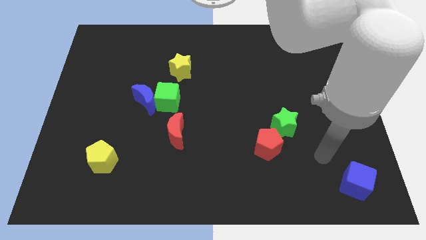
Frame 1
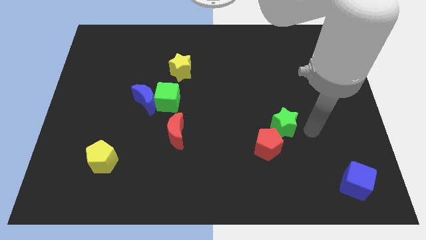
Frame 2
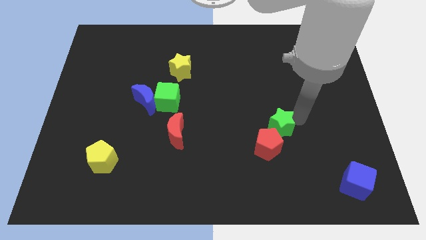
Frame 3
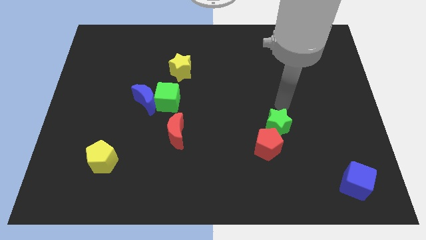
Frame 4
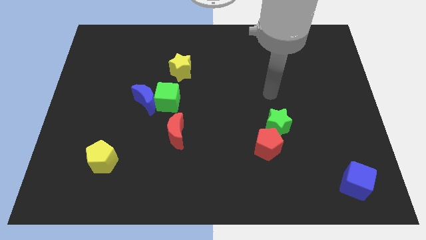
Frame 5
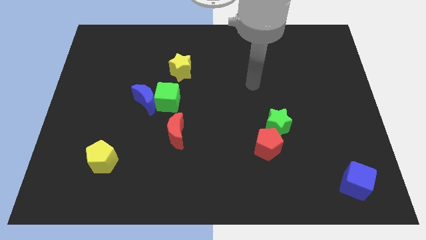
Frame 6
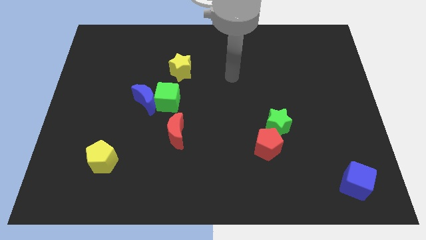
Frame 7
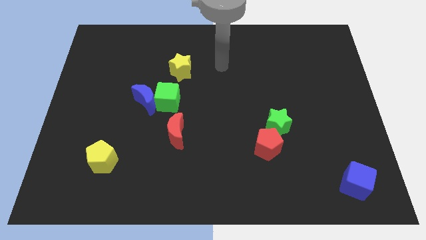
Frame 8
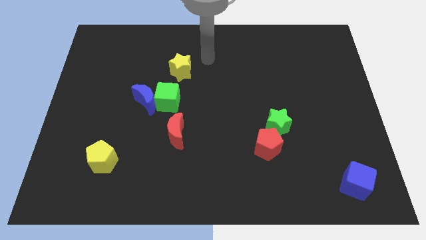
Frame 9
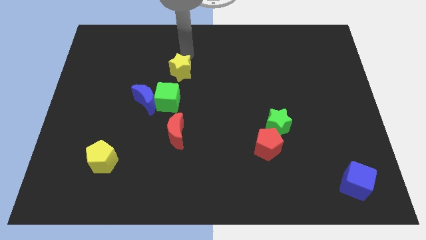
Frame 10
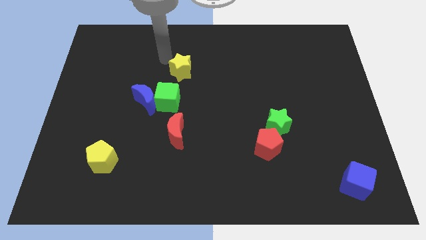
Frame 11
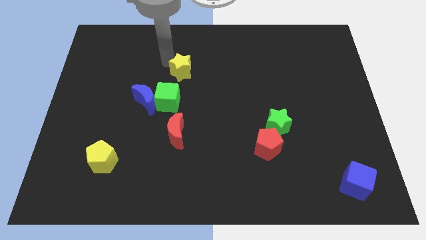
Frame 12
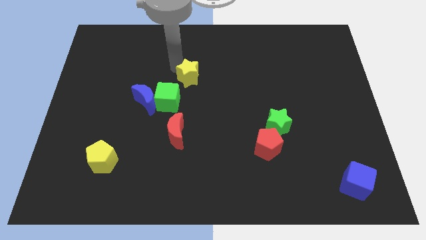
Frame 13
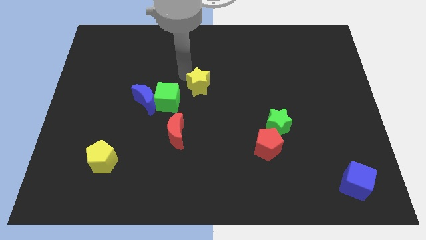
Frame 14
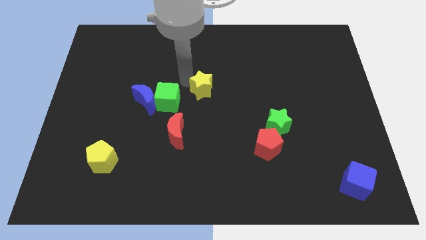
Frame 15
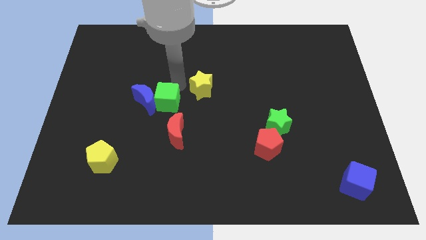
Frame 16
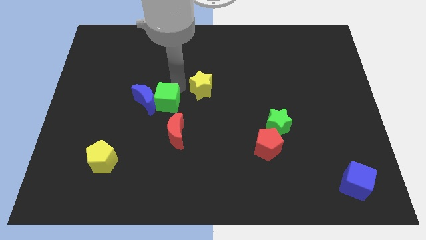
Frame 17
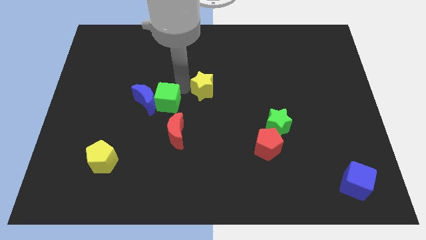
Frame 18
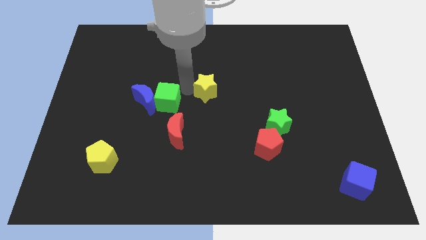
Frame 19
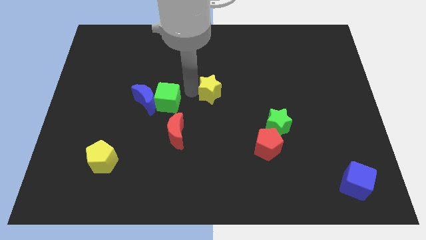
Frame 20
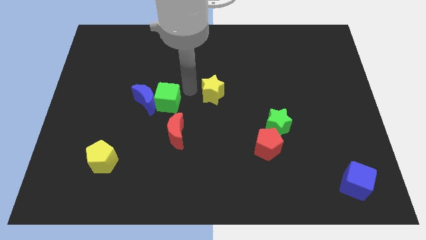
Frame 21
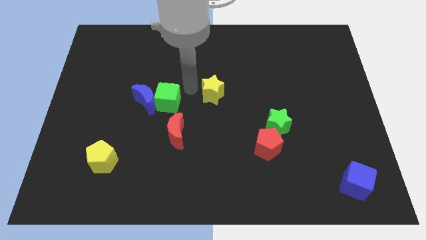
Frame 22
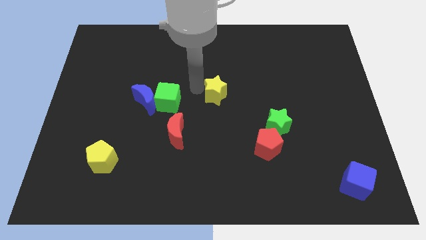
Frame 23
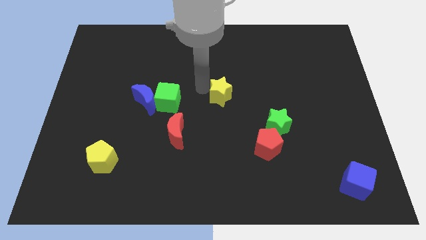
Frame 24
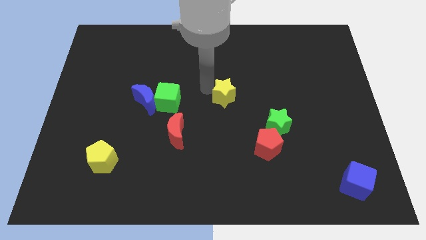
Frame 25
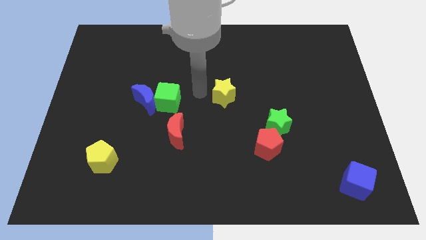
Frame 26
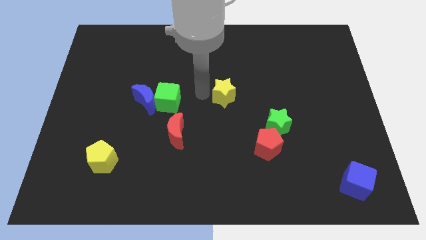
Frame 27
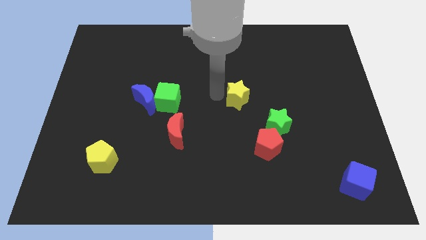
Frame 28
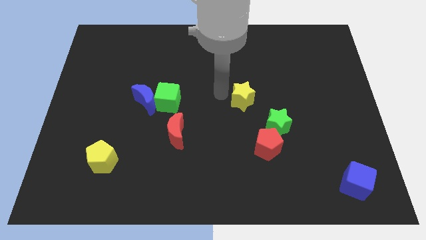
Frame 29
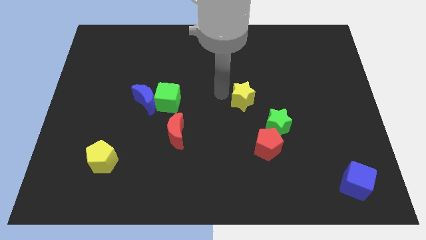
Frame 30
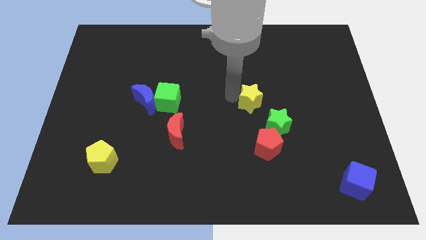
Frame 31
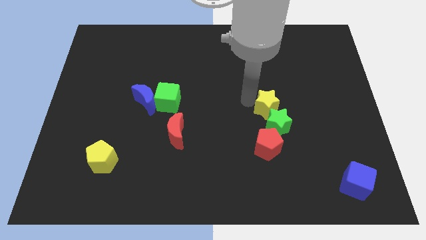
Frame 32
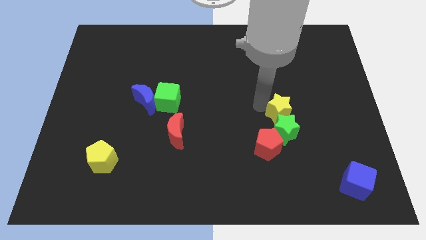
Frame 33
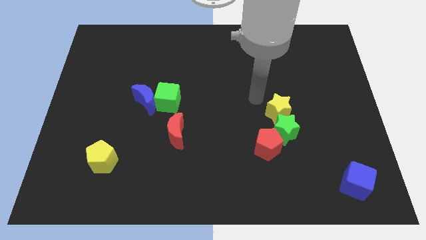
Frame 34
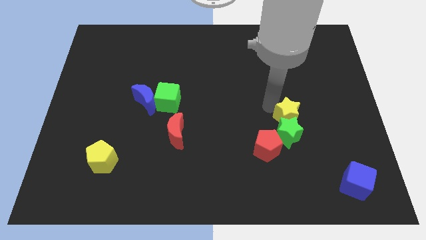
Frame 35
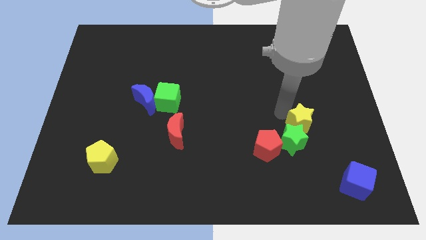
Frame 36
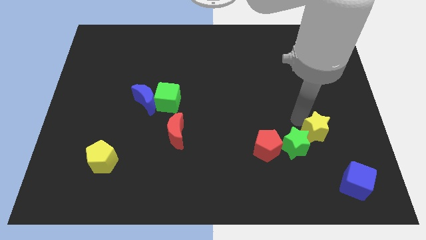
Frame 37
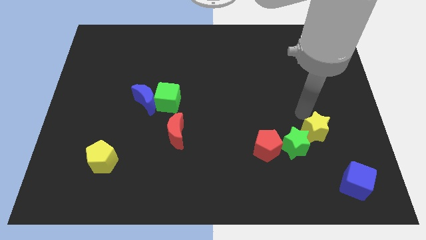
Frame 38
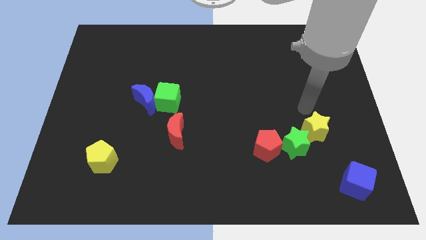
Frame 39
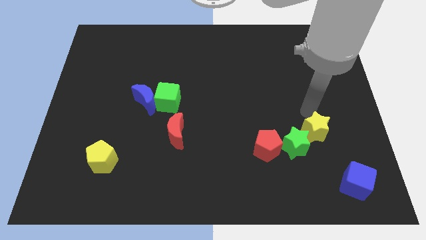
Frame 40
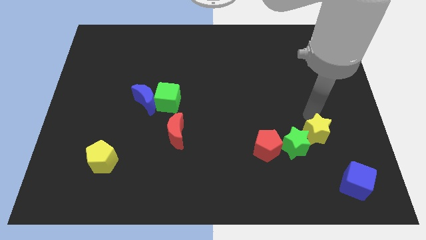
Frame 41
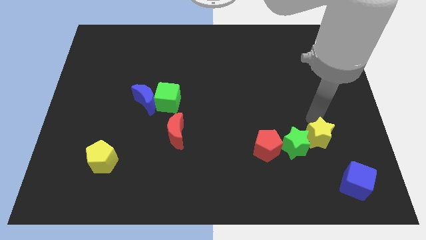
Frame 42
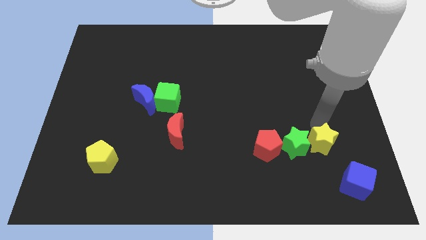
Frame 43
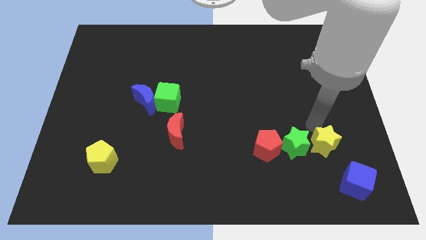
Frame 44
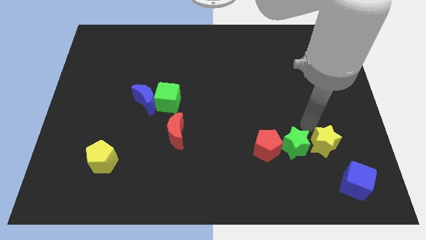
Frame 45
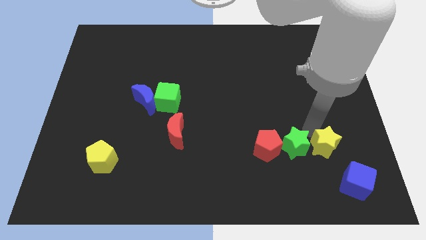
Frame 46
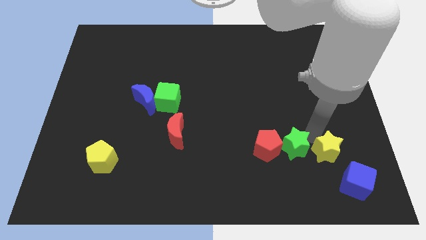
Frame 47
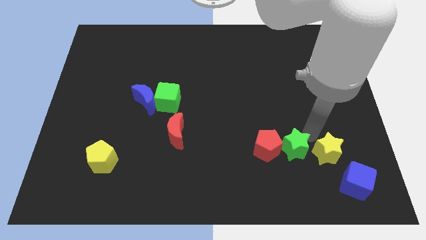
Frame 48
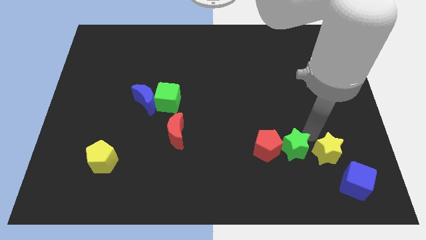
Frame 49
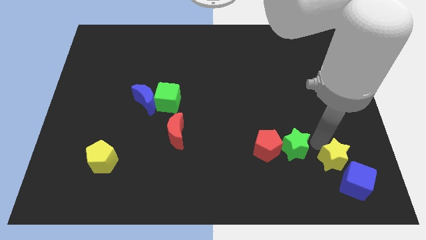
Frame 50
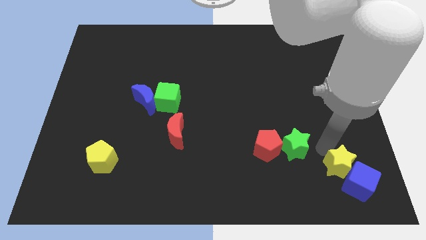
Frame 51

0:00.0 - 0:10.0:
move the yellow star close to the blue cube

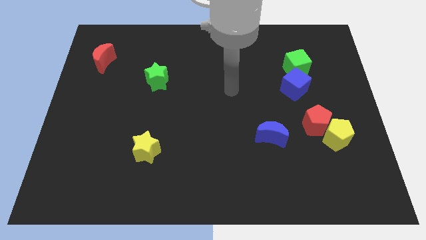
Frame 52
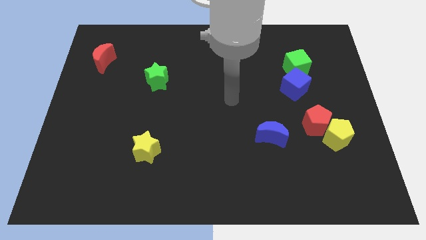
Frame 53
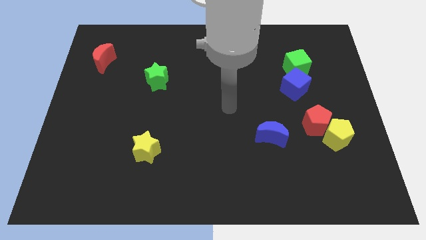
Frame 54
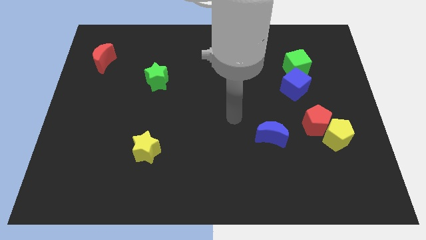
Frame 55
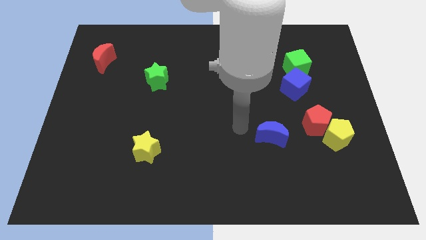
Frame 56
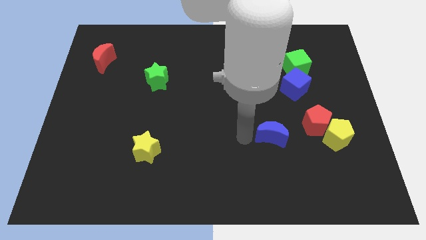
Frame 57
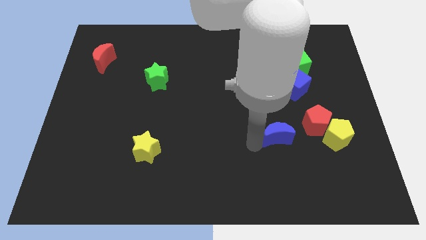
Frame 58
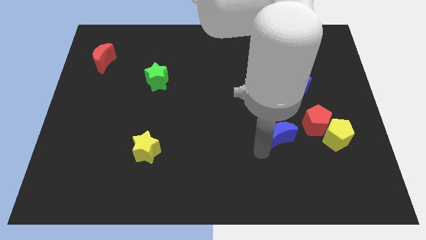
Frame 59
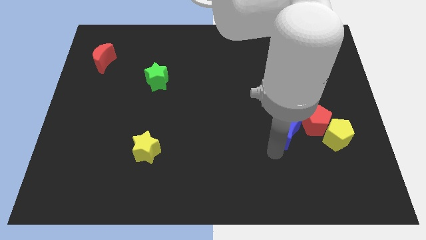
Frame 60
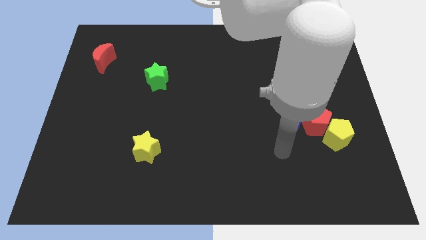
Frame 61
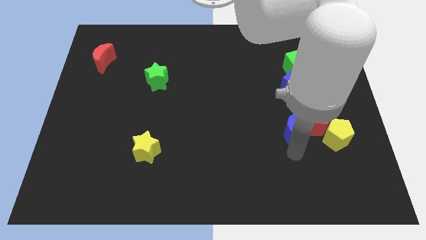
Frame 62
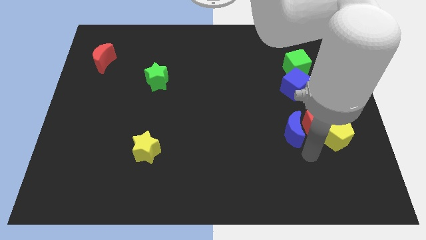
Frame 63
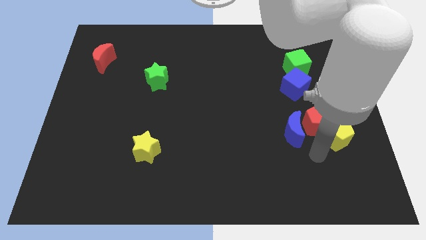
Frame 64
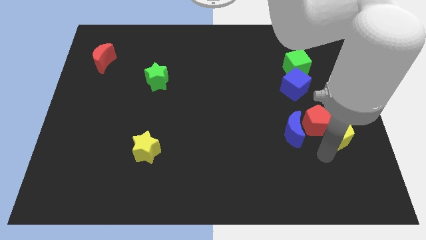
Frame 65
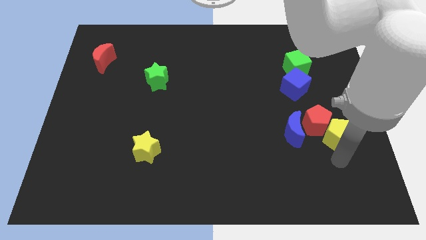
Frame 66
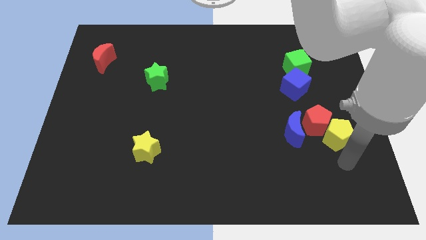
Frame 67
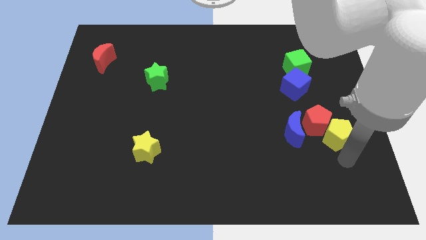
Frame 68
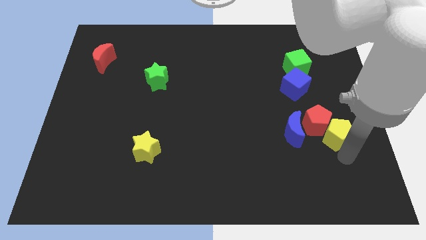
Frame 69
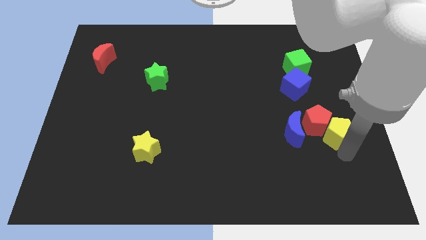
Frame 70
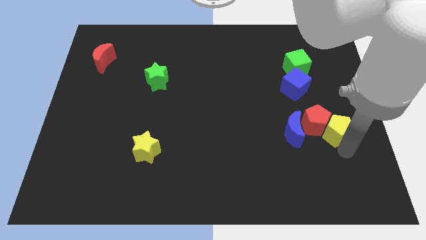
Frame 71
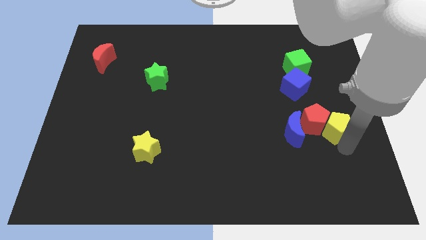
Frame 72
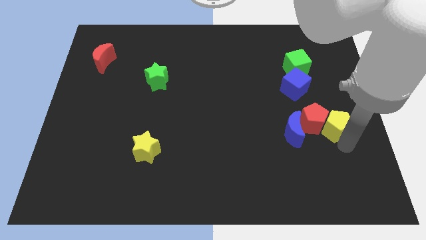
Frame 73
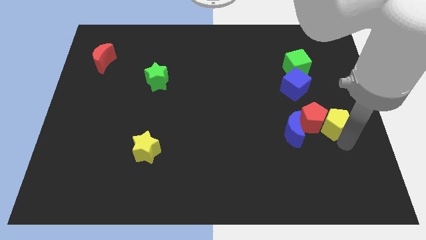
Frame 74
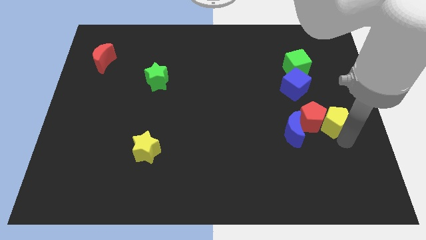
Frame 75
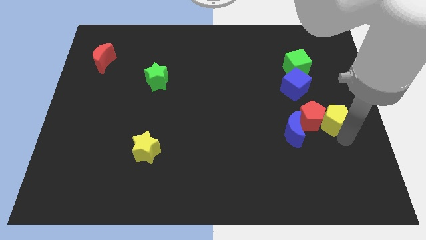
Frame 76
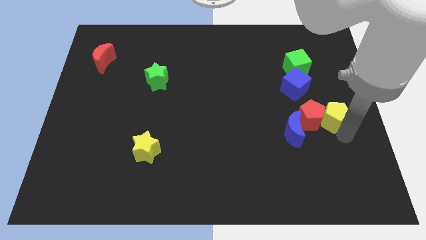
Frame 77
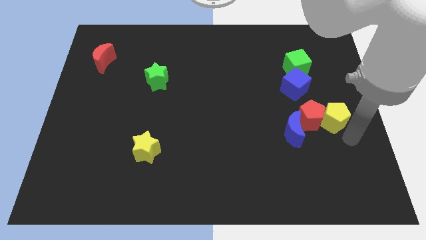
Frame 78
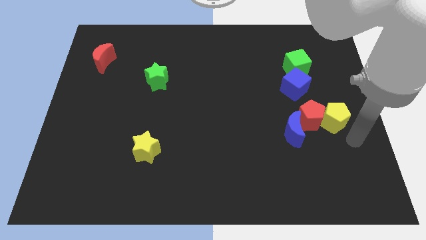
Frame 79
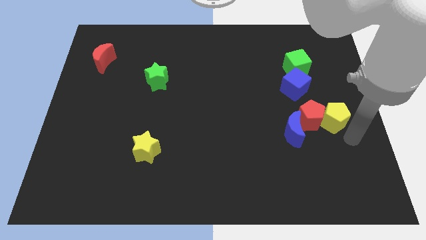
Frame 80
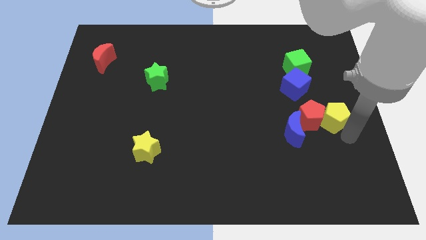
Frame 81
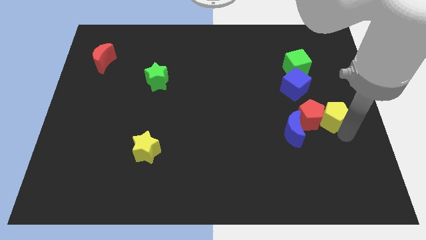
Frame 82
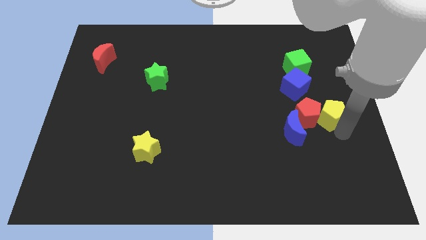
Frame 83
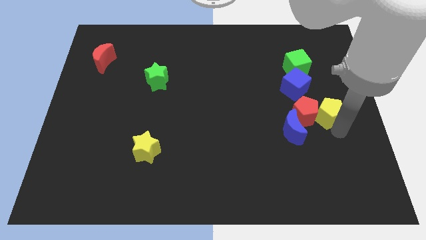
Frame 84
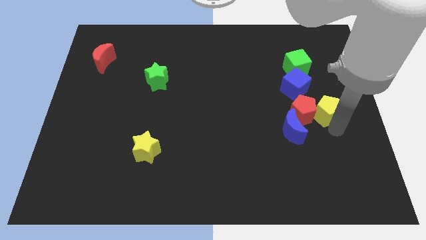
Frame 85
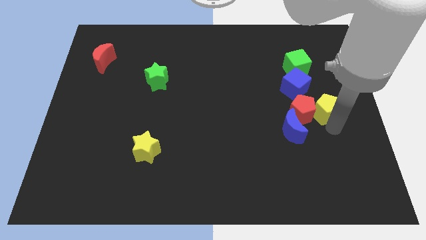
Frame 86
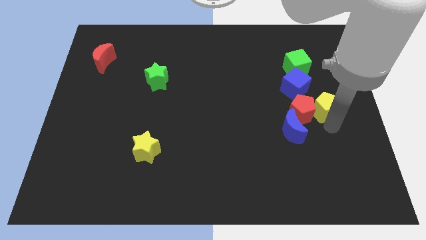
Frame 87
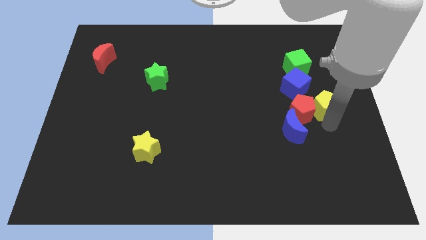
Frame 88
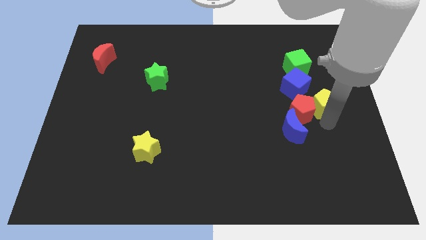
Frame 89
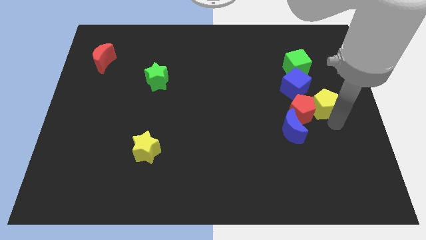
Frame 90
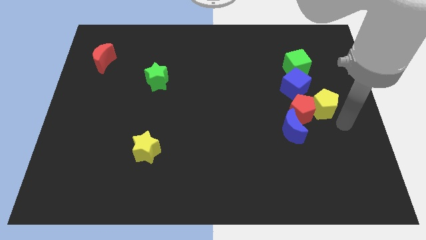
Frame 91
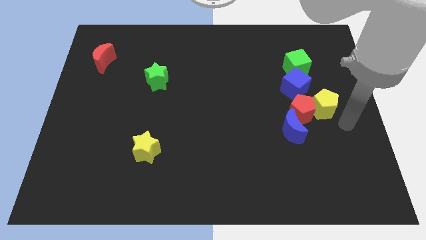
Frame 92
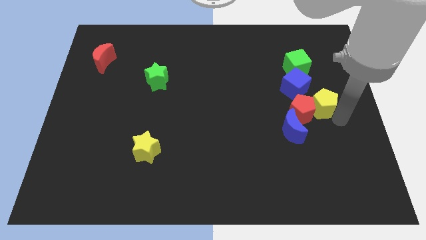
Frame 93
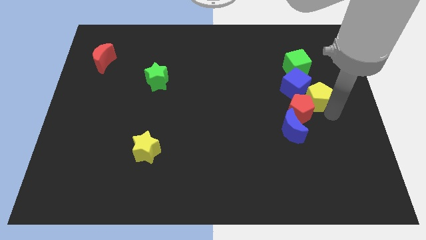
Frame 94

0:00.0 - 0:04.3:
put the yellow pentagon towards the blue cube
